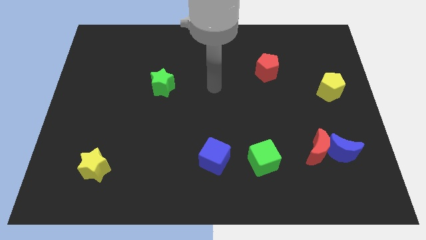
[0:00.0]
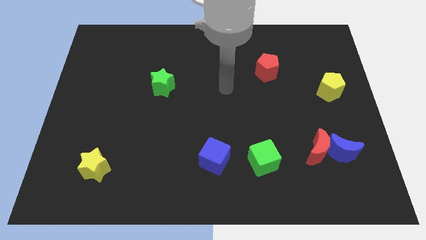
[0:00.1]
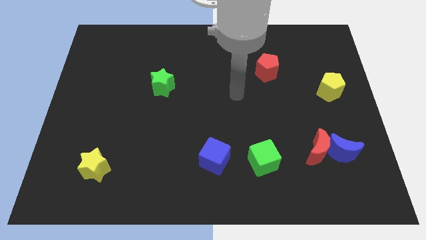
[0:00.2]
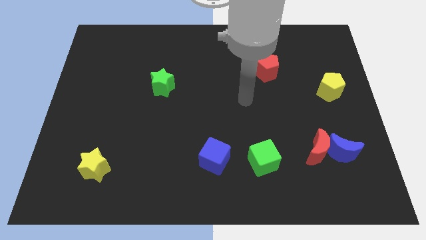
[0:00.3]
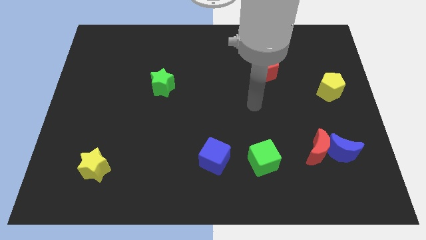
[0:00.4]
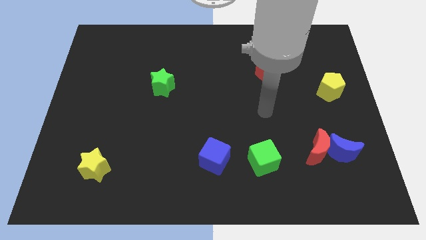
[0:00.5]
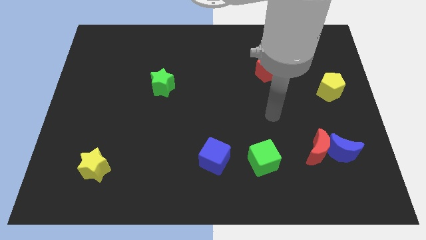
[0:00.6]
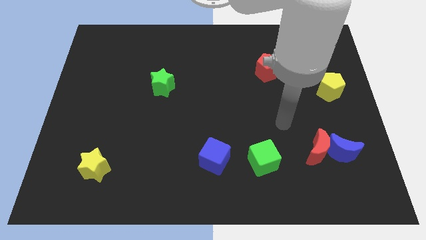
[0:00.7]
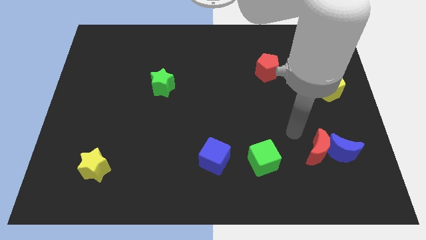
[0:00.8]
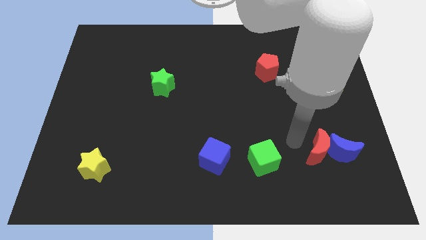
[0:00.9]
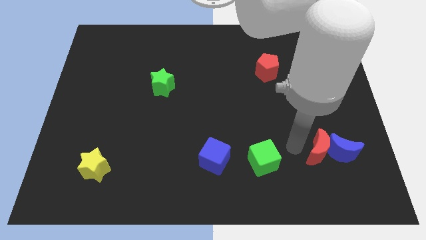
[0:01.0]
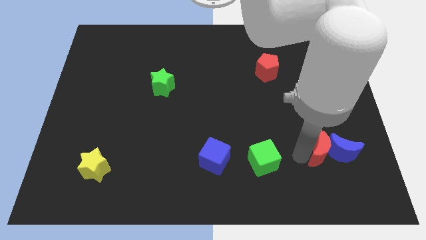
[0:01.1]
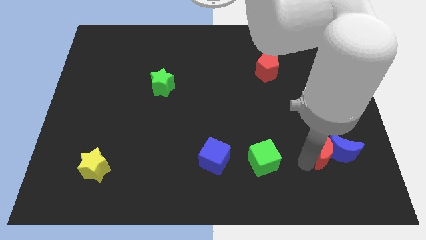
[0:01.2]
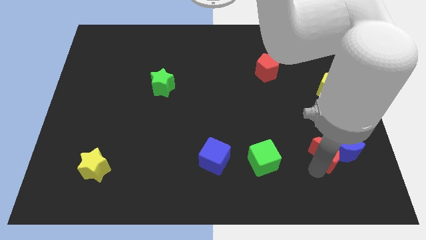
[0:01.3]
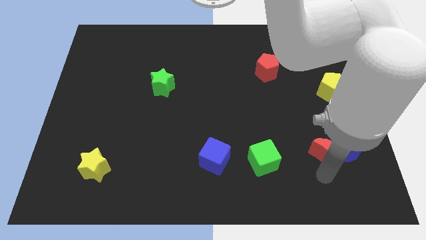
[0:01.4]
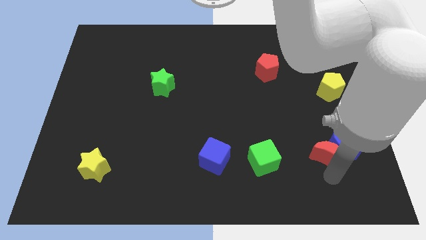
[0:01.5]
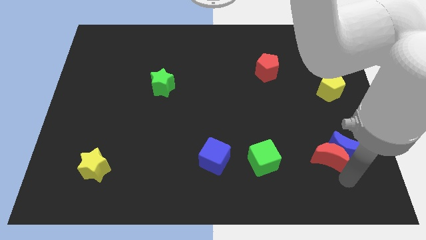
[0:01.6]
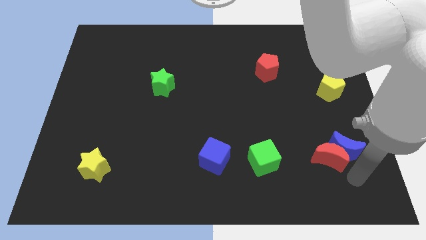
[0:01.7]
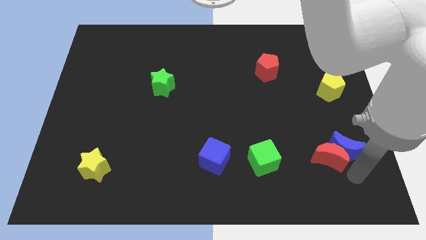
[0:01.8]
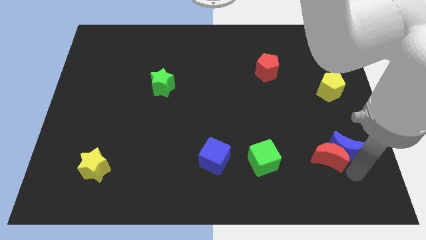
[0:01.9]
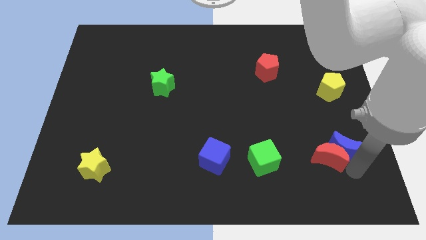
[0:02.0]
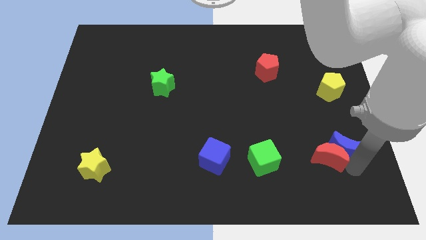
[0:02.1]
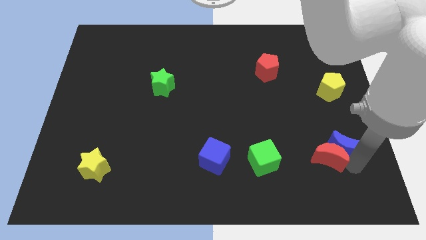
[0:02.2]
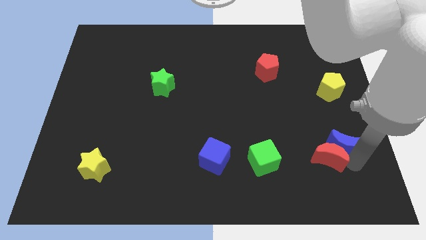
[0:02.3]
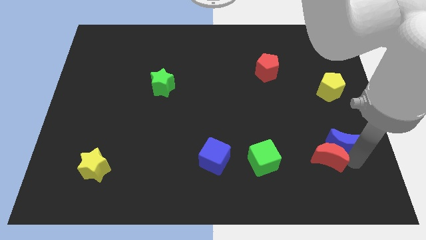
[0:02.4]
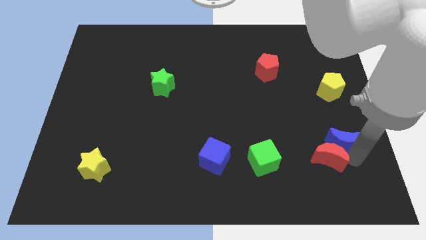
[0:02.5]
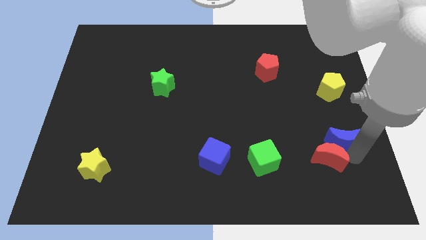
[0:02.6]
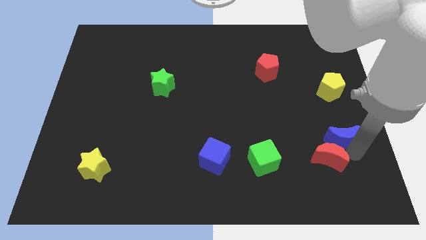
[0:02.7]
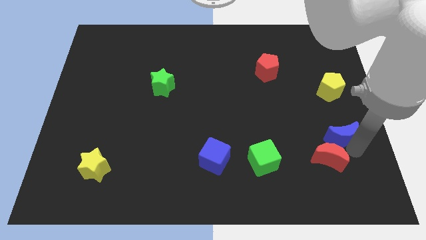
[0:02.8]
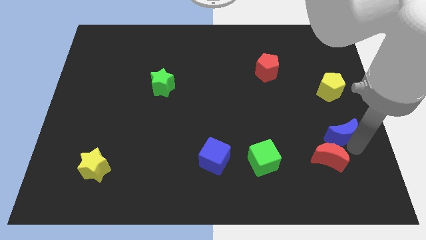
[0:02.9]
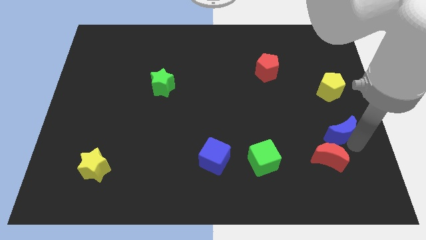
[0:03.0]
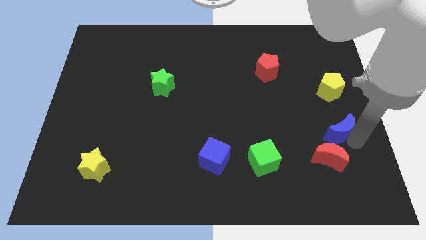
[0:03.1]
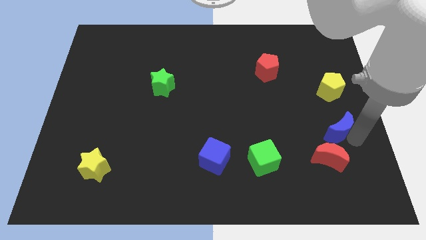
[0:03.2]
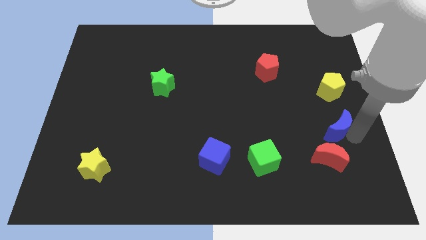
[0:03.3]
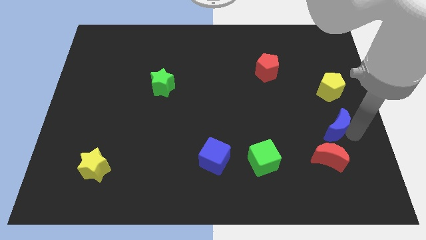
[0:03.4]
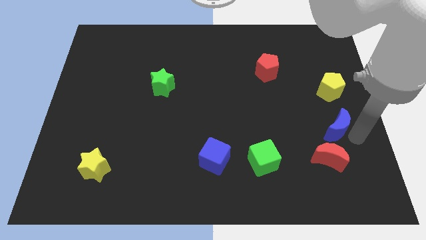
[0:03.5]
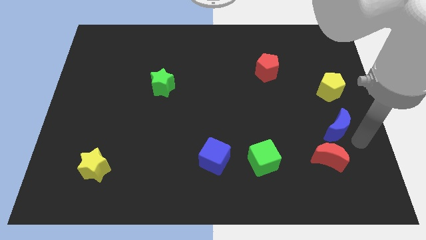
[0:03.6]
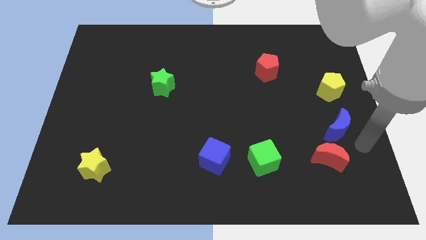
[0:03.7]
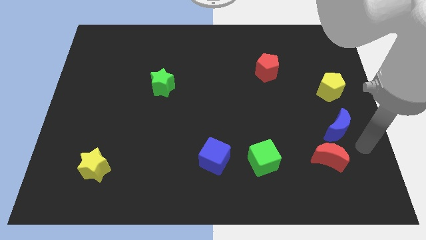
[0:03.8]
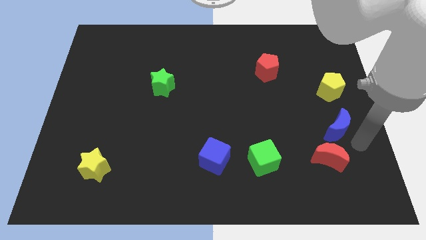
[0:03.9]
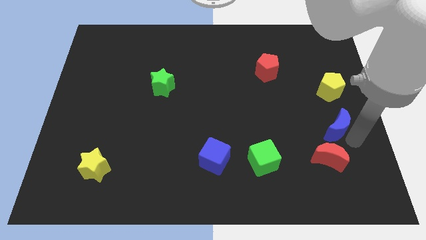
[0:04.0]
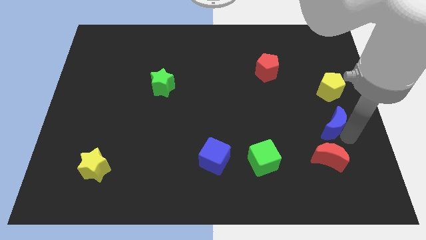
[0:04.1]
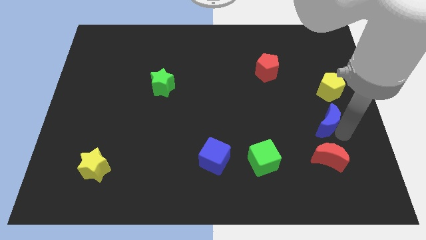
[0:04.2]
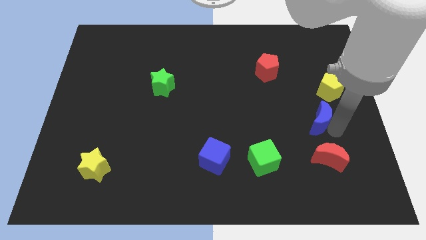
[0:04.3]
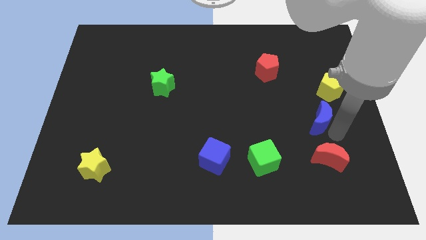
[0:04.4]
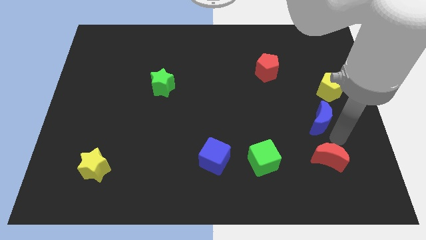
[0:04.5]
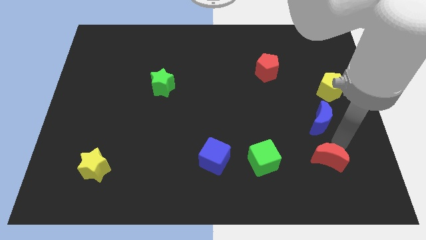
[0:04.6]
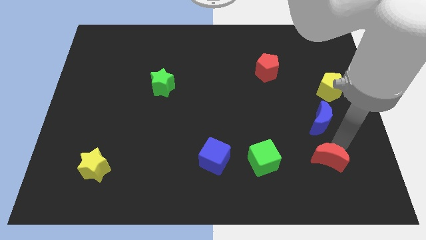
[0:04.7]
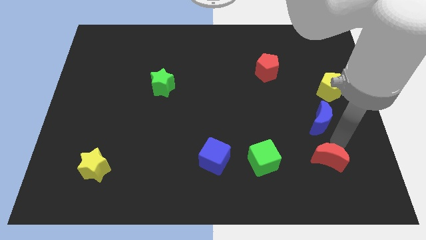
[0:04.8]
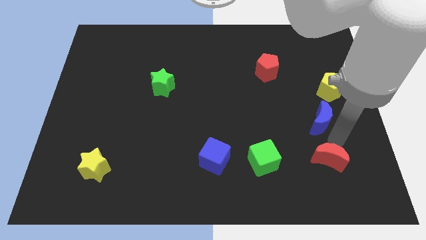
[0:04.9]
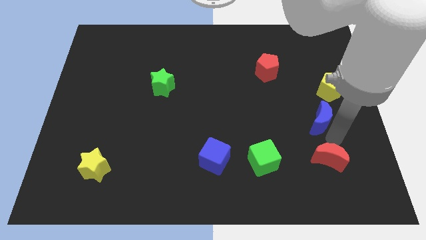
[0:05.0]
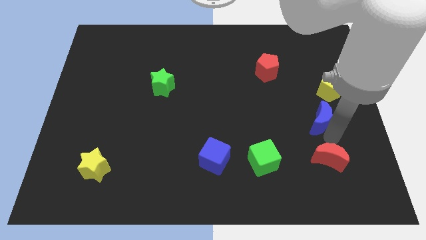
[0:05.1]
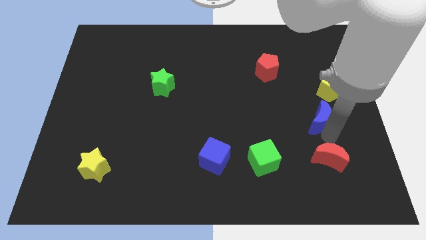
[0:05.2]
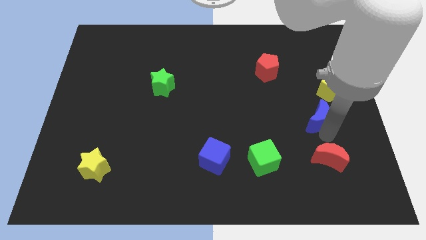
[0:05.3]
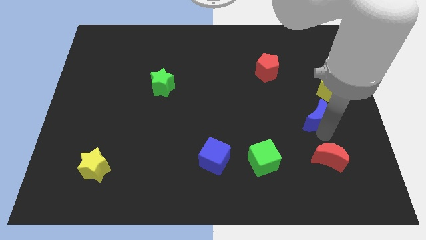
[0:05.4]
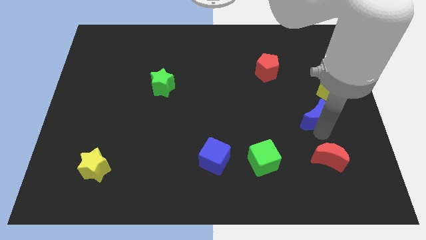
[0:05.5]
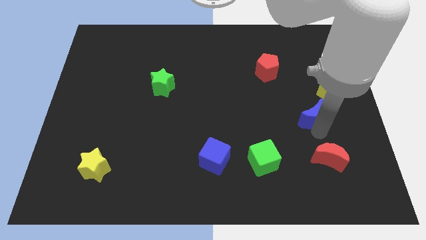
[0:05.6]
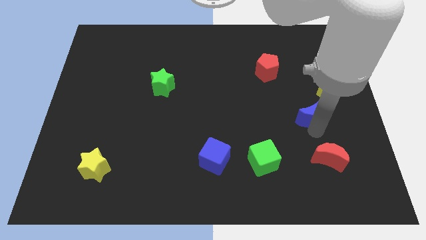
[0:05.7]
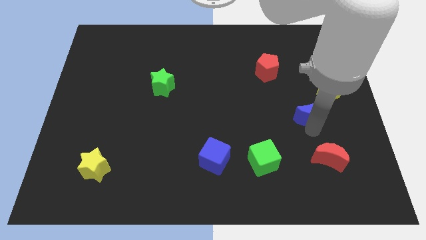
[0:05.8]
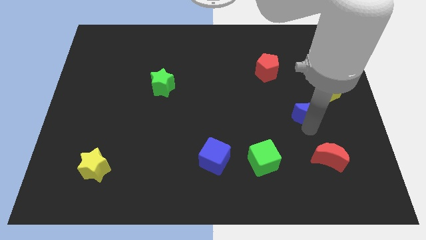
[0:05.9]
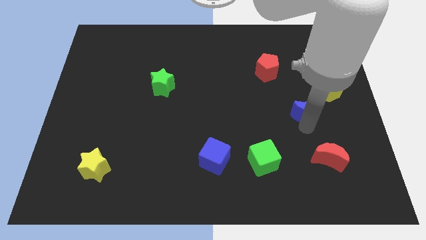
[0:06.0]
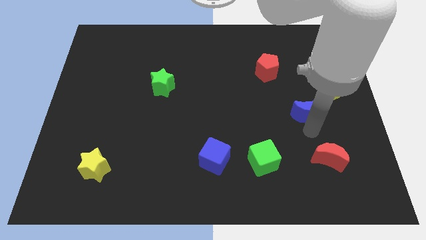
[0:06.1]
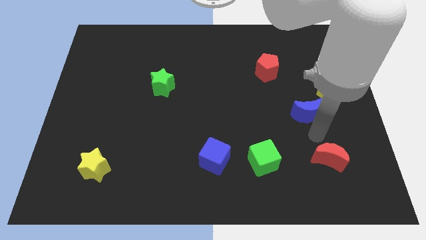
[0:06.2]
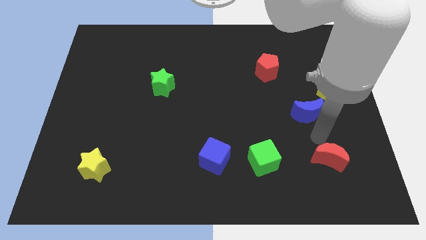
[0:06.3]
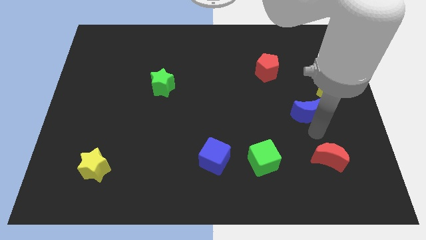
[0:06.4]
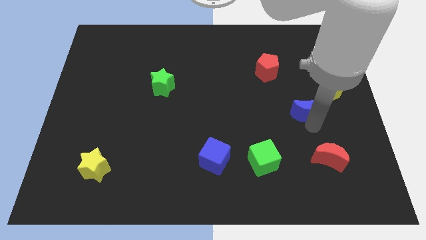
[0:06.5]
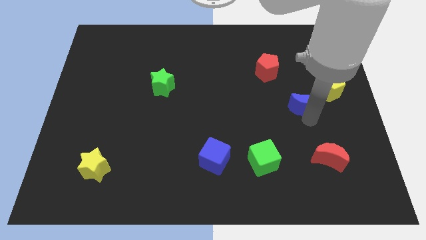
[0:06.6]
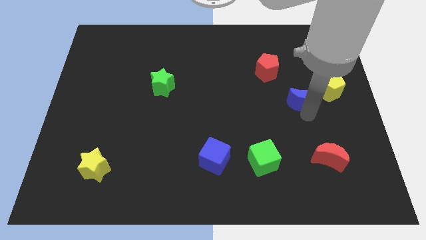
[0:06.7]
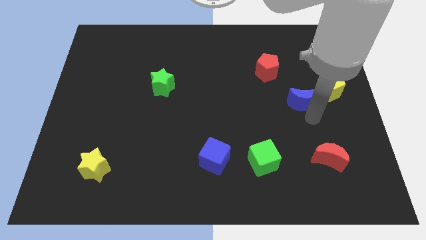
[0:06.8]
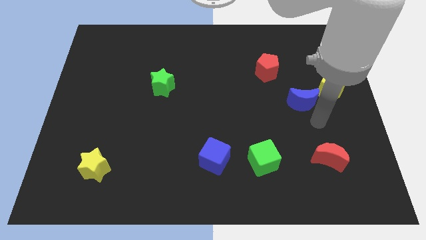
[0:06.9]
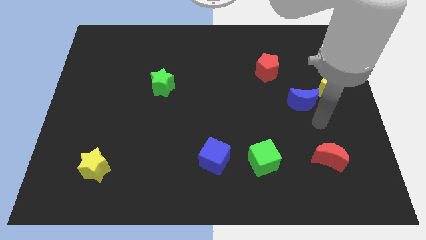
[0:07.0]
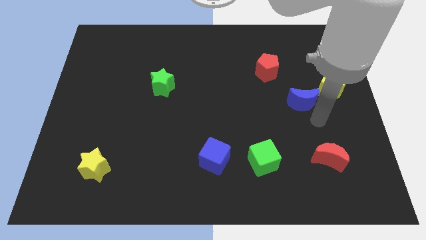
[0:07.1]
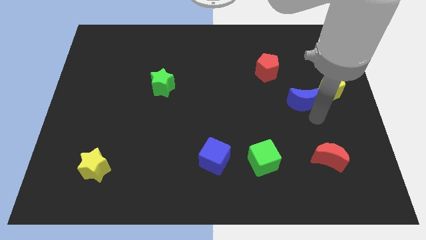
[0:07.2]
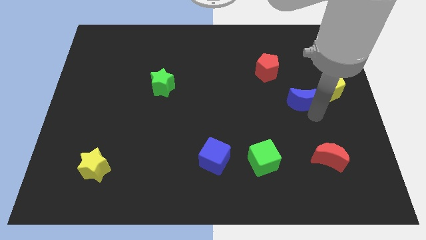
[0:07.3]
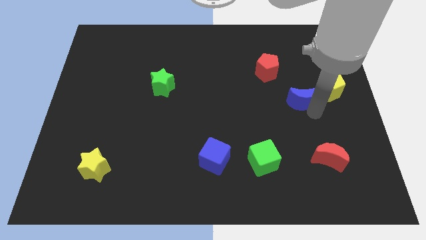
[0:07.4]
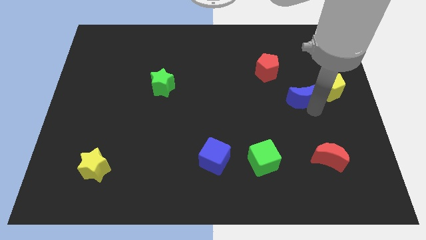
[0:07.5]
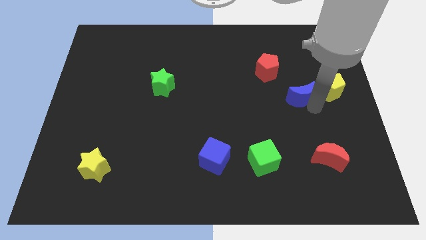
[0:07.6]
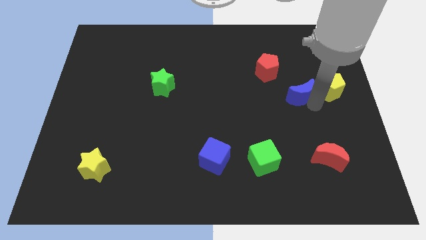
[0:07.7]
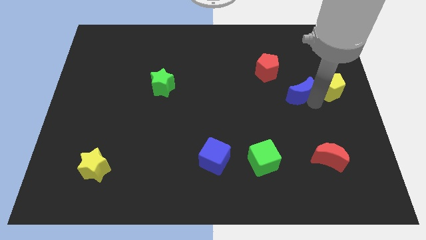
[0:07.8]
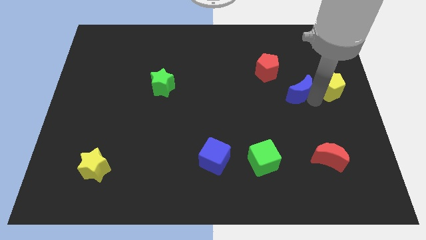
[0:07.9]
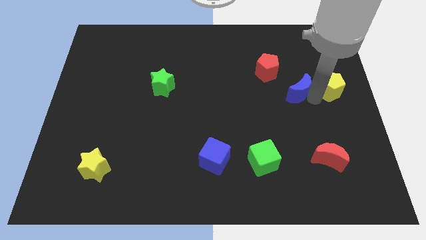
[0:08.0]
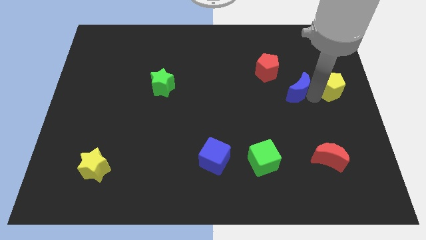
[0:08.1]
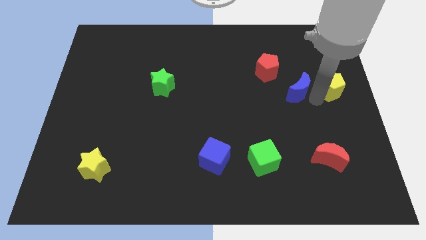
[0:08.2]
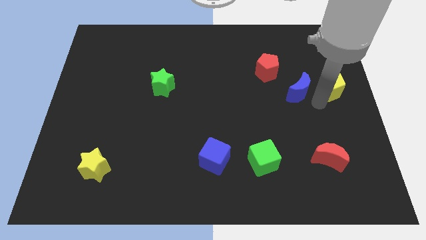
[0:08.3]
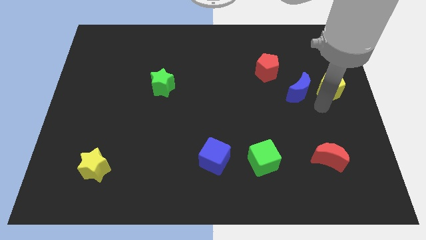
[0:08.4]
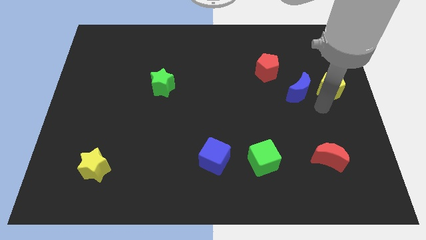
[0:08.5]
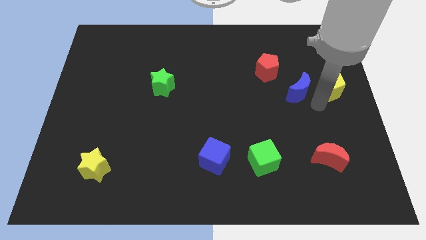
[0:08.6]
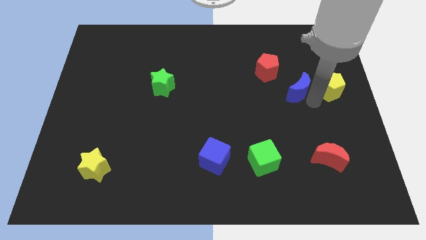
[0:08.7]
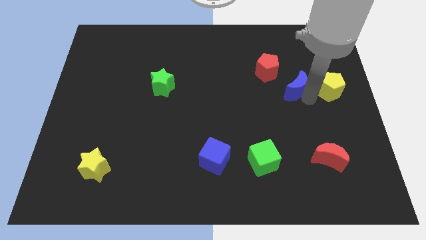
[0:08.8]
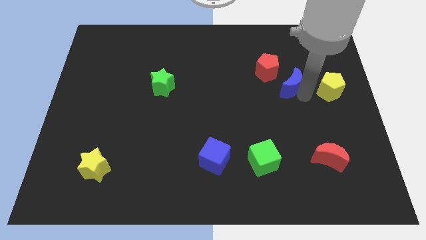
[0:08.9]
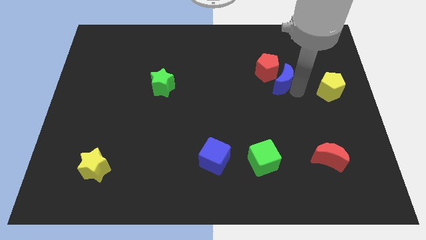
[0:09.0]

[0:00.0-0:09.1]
slide the blue moon towards the red pentagon
